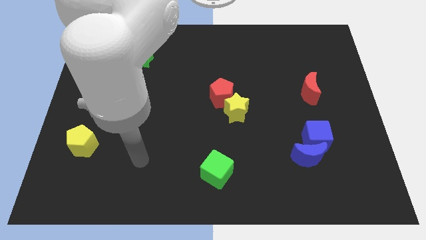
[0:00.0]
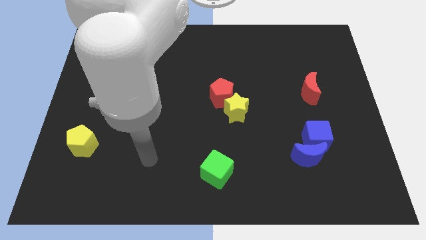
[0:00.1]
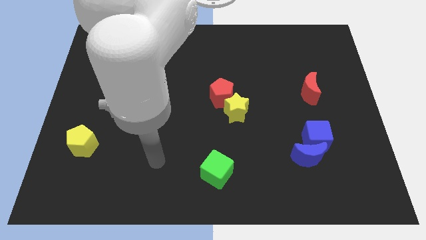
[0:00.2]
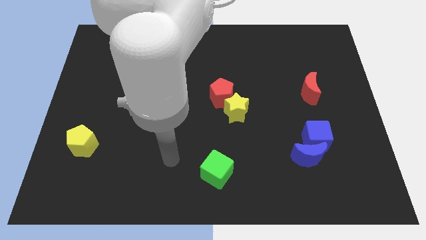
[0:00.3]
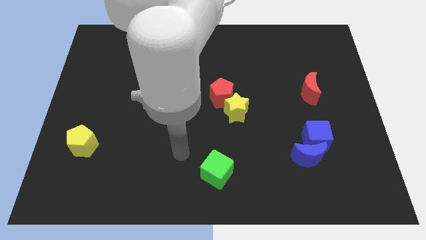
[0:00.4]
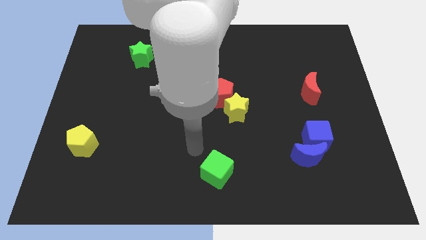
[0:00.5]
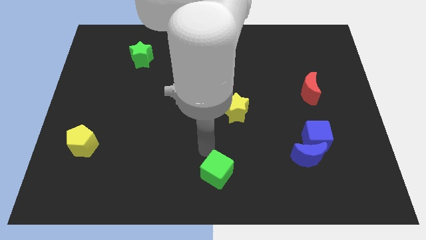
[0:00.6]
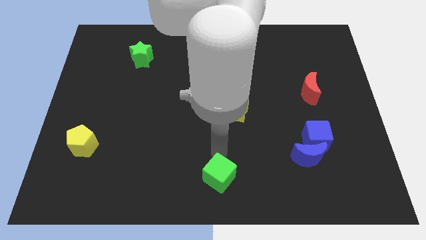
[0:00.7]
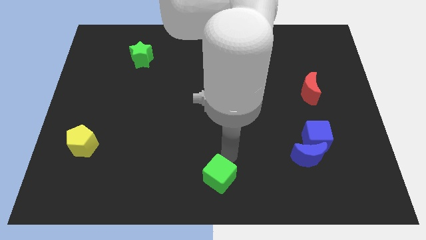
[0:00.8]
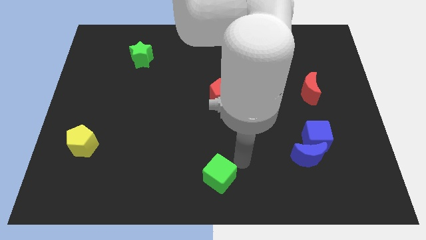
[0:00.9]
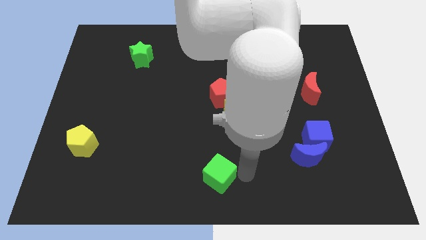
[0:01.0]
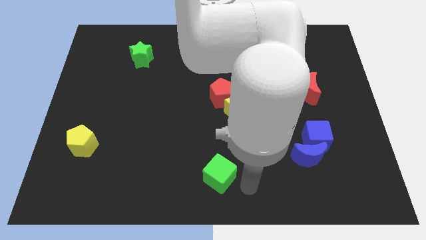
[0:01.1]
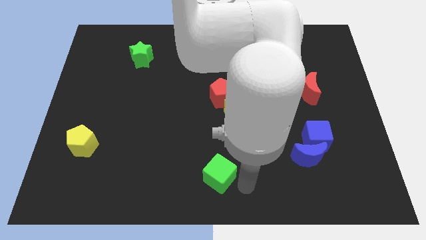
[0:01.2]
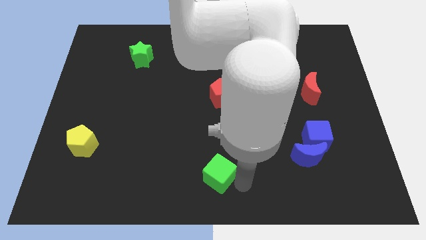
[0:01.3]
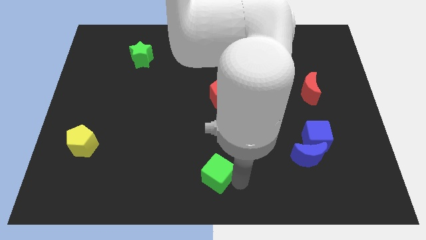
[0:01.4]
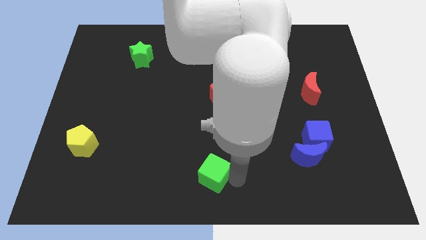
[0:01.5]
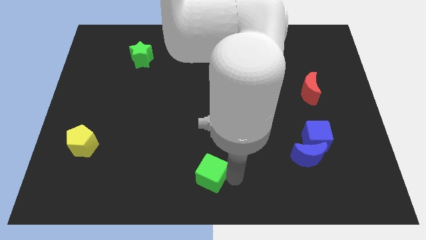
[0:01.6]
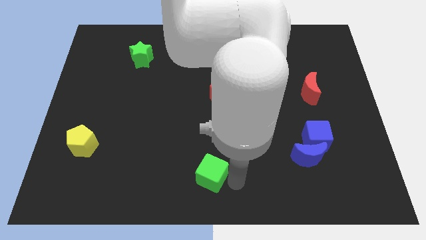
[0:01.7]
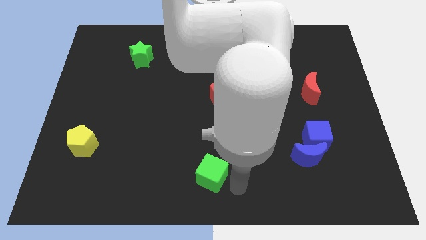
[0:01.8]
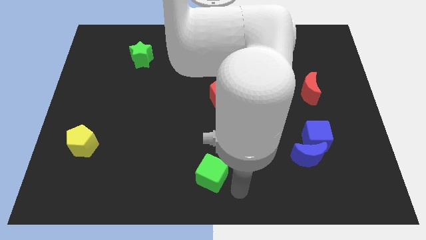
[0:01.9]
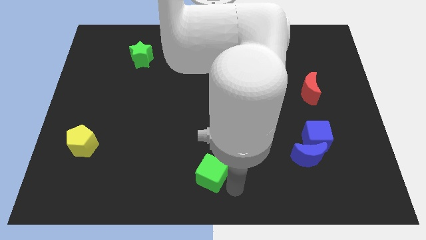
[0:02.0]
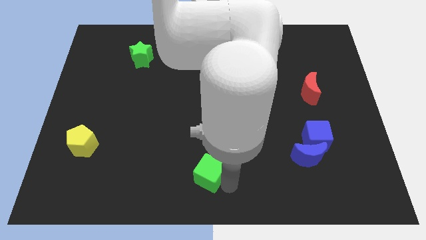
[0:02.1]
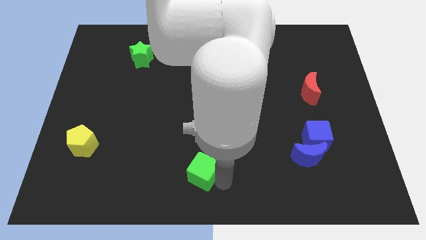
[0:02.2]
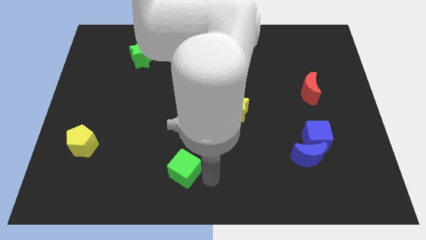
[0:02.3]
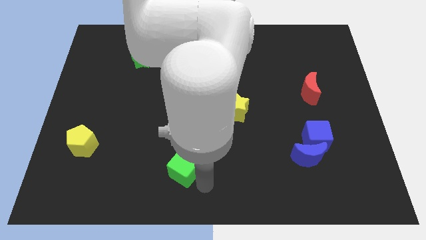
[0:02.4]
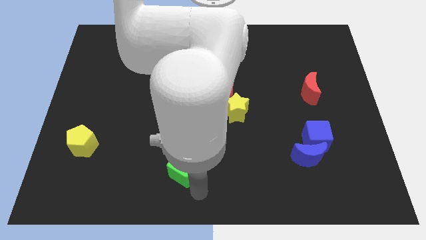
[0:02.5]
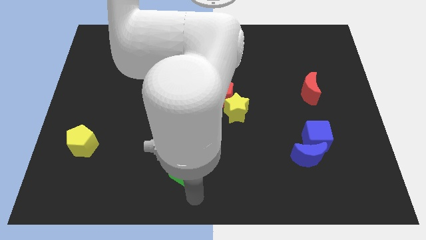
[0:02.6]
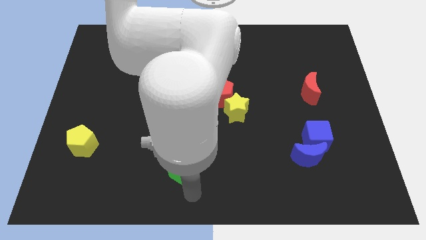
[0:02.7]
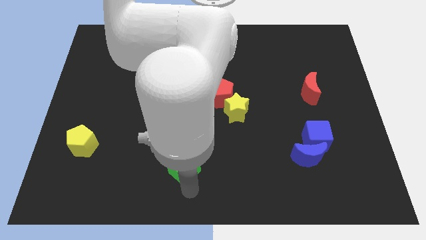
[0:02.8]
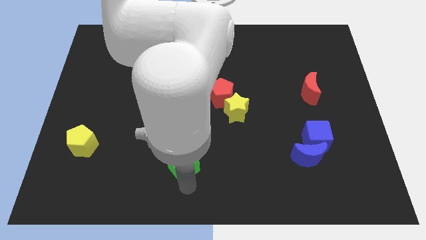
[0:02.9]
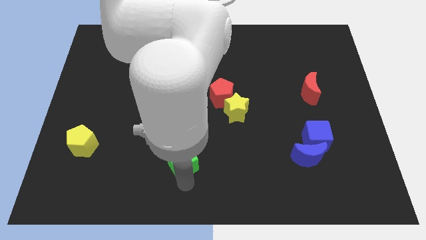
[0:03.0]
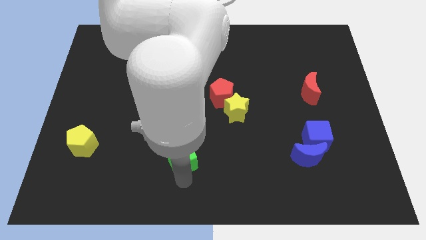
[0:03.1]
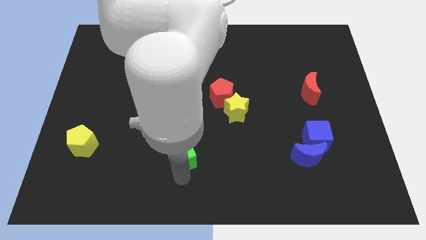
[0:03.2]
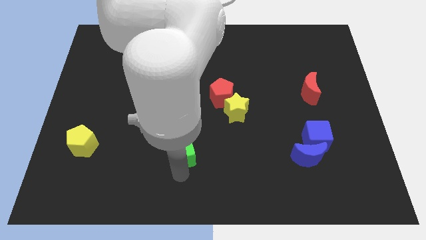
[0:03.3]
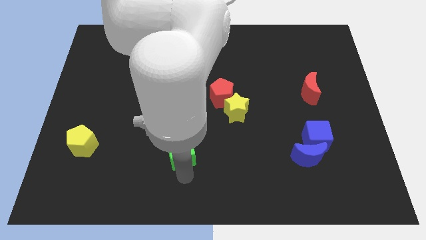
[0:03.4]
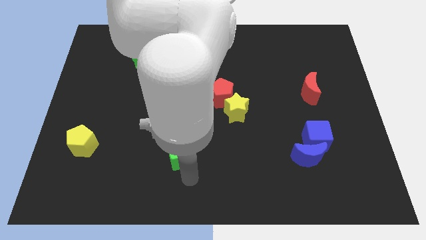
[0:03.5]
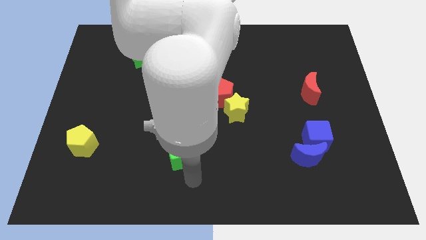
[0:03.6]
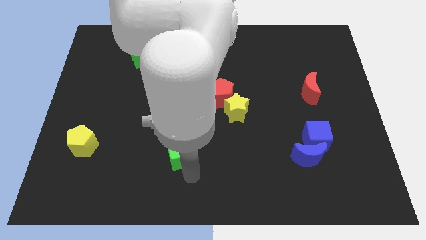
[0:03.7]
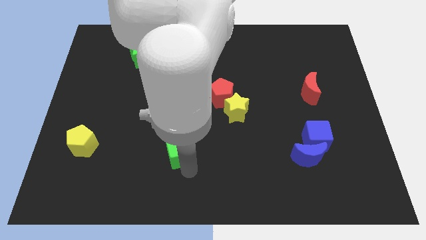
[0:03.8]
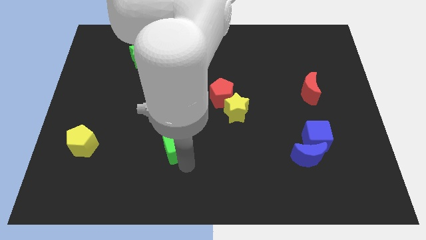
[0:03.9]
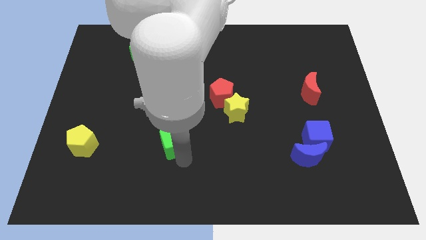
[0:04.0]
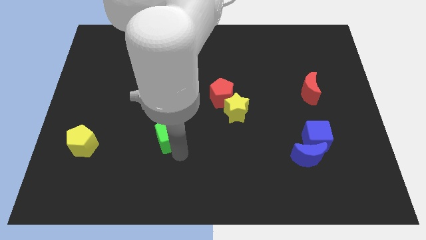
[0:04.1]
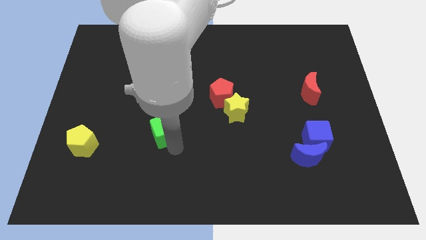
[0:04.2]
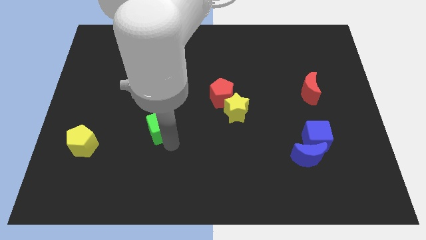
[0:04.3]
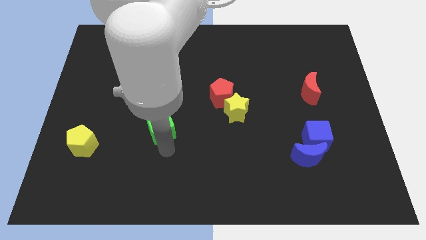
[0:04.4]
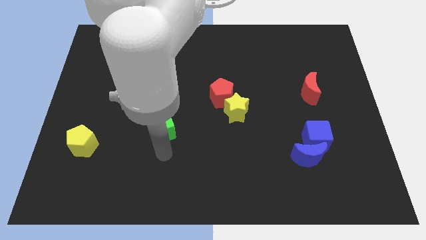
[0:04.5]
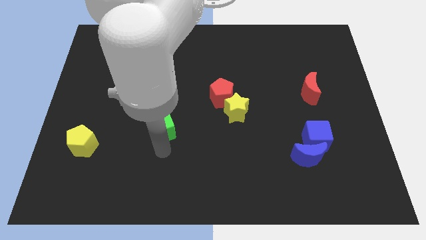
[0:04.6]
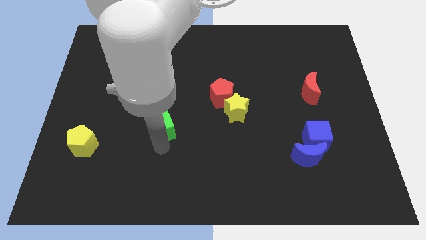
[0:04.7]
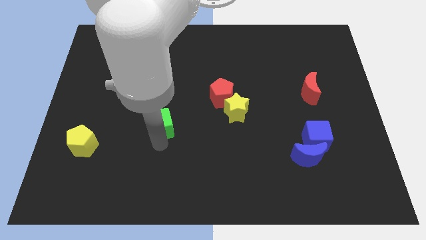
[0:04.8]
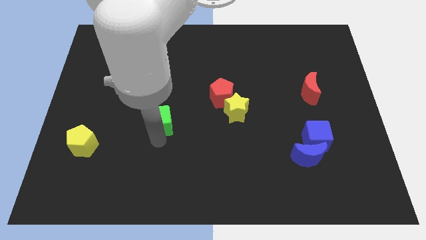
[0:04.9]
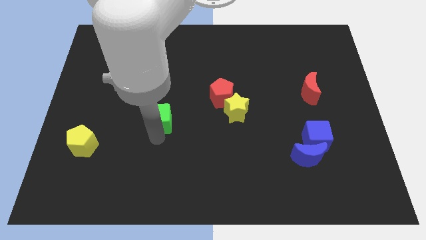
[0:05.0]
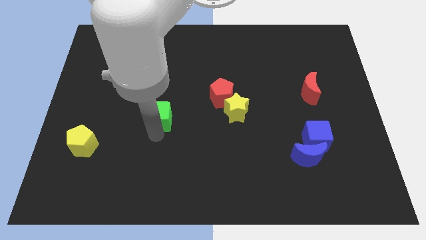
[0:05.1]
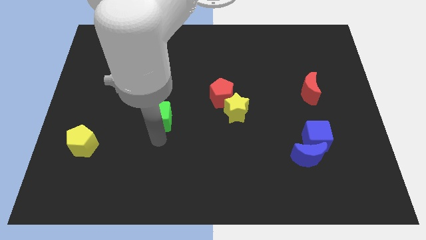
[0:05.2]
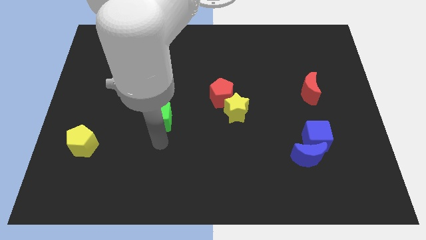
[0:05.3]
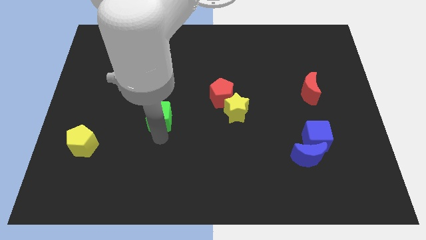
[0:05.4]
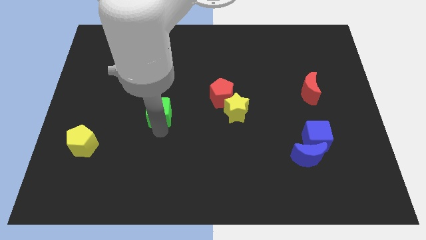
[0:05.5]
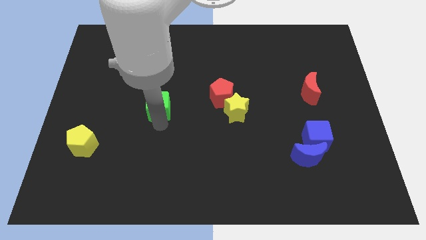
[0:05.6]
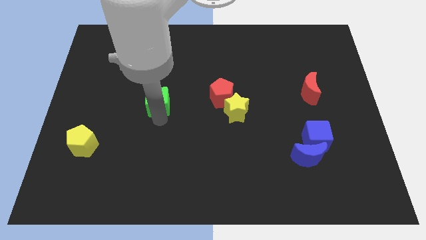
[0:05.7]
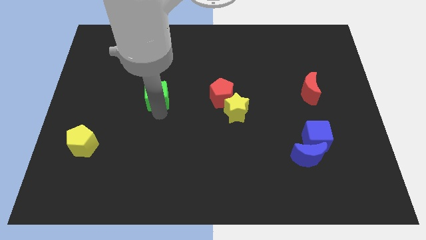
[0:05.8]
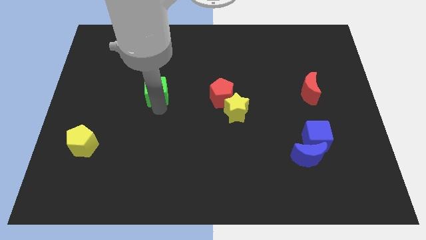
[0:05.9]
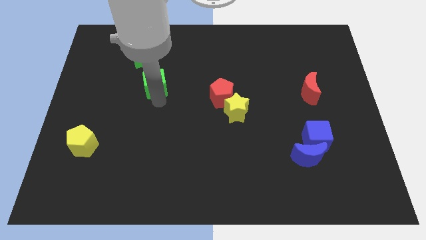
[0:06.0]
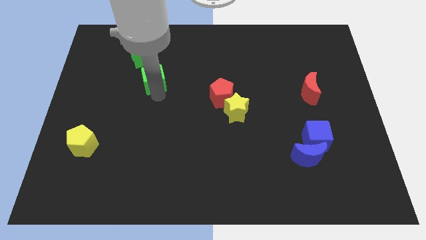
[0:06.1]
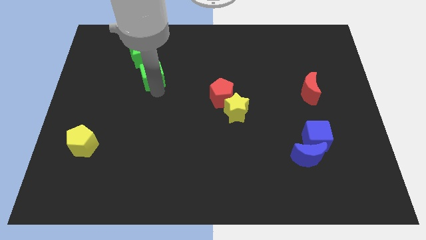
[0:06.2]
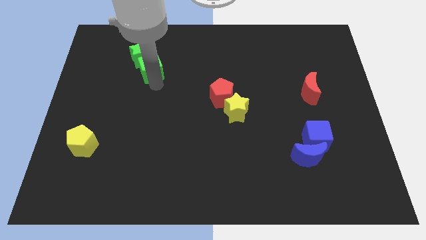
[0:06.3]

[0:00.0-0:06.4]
put the green cube next to the green star

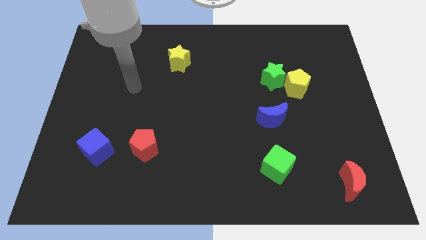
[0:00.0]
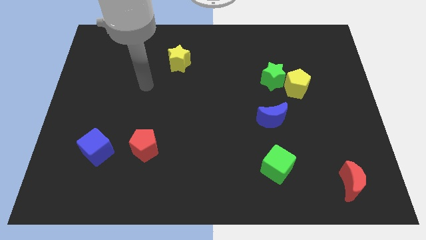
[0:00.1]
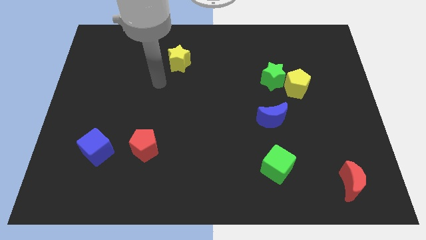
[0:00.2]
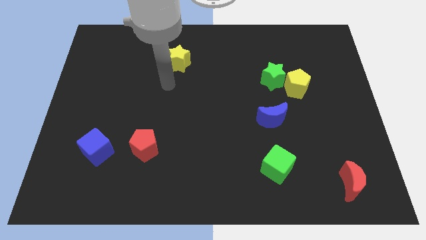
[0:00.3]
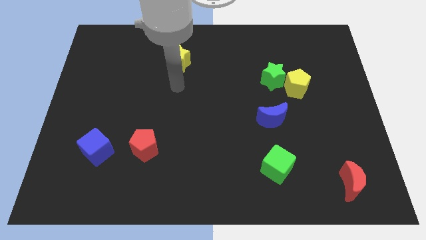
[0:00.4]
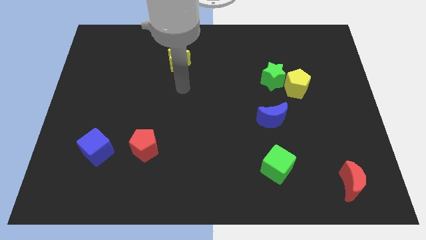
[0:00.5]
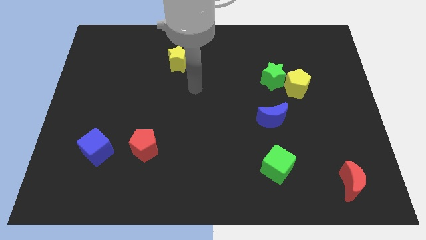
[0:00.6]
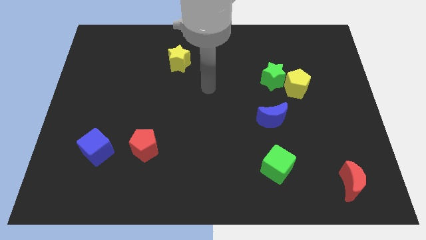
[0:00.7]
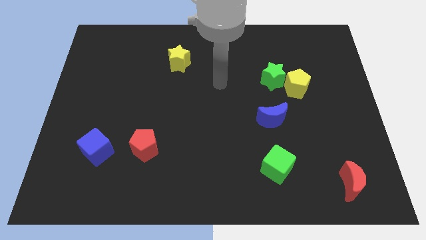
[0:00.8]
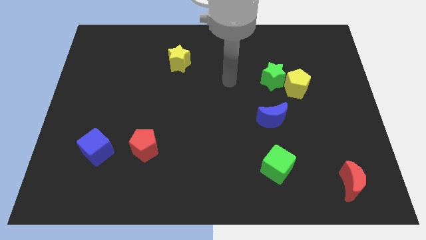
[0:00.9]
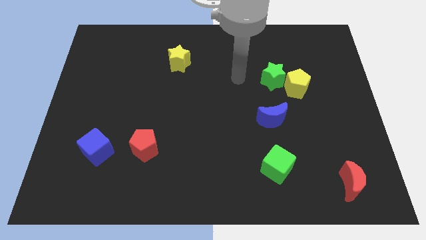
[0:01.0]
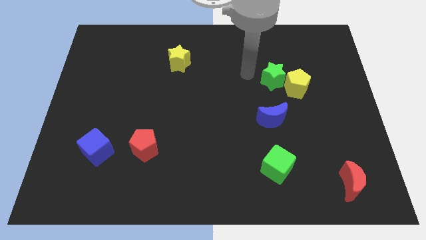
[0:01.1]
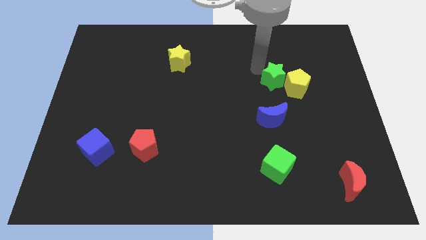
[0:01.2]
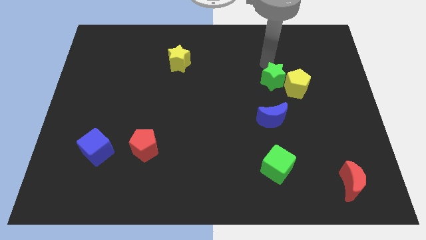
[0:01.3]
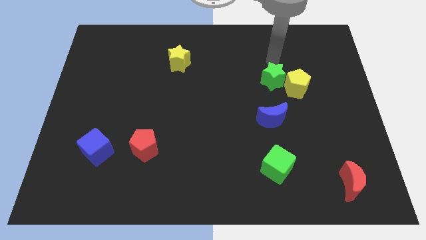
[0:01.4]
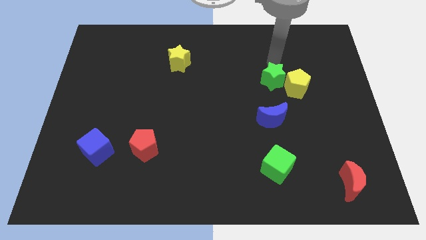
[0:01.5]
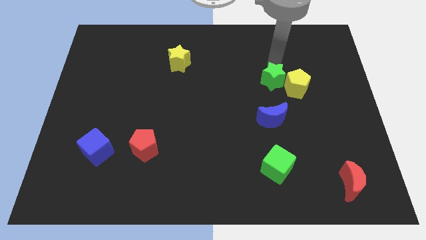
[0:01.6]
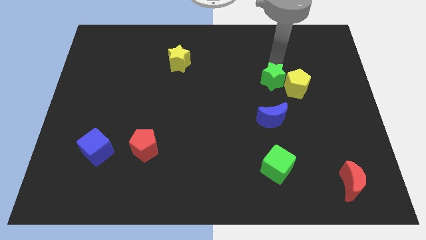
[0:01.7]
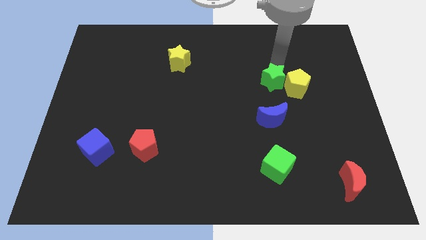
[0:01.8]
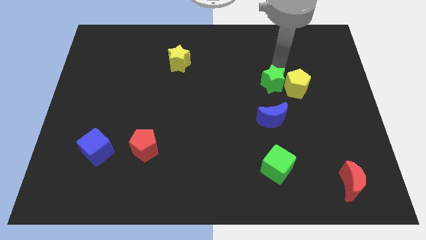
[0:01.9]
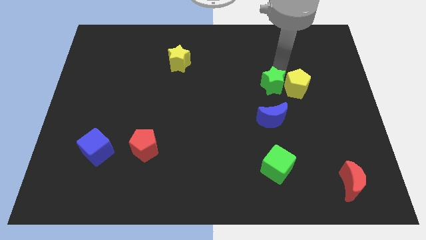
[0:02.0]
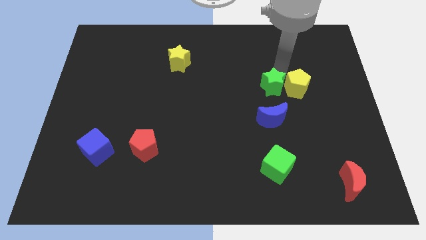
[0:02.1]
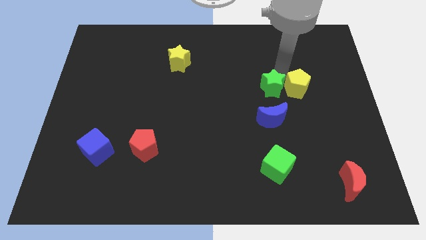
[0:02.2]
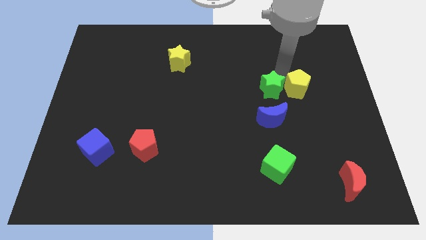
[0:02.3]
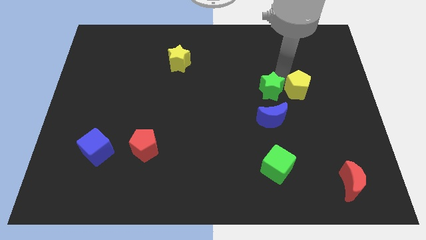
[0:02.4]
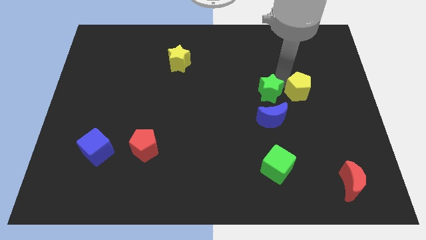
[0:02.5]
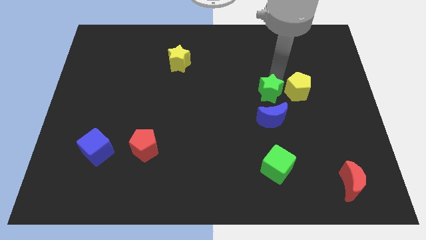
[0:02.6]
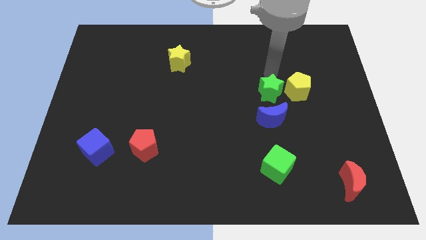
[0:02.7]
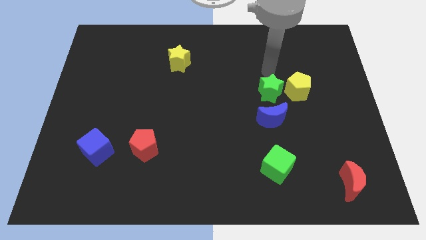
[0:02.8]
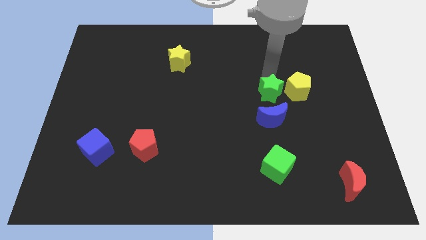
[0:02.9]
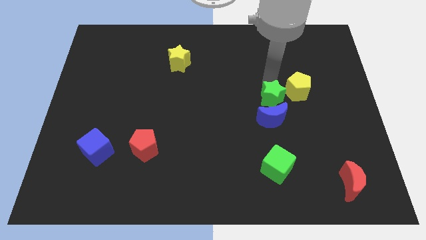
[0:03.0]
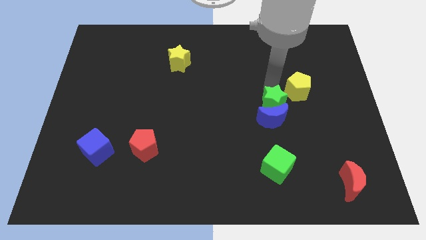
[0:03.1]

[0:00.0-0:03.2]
slide the green star to the blue moon
